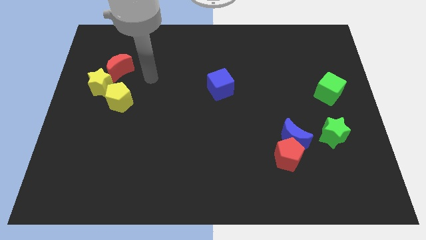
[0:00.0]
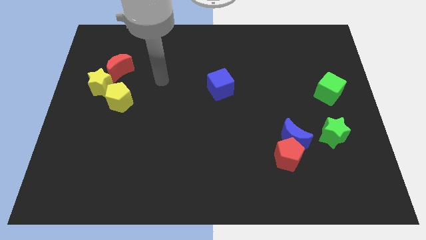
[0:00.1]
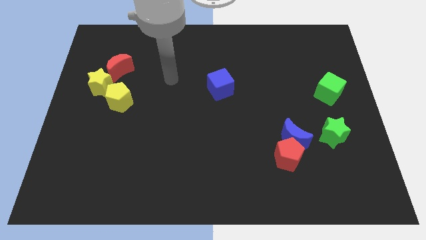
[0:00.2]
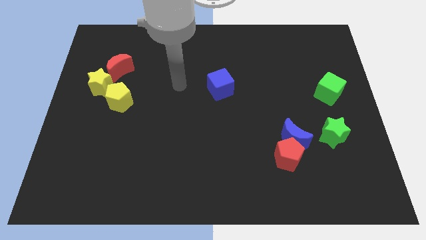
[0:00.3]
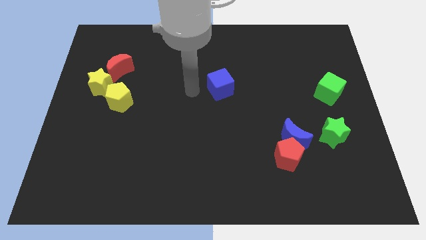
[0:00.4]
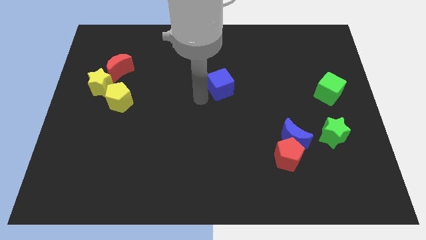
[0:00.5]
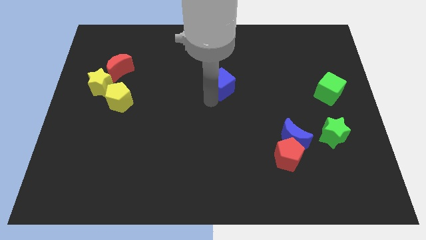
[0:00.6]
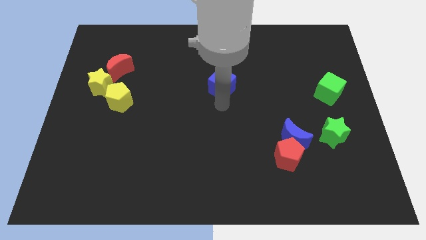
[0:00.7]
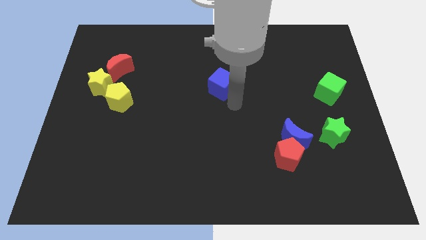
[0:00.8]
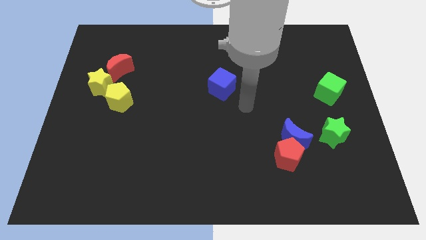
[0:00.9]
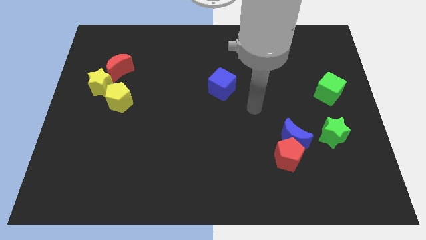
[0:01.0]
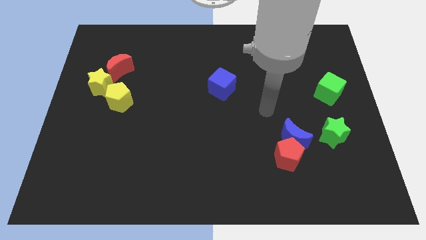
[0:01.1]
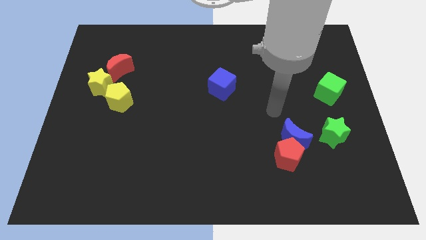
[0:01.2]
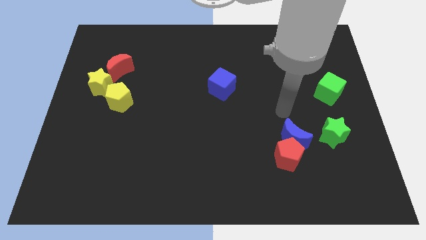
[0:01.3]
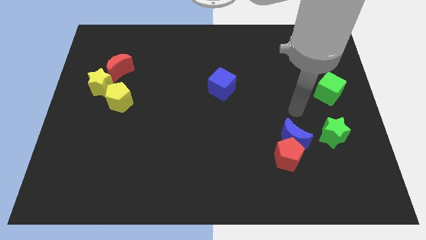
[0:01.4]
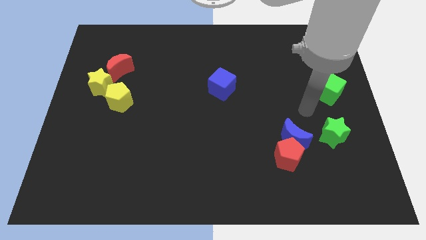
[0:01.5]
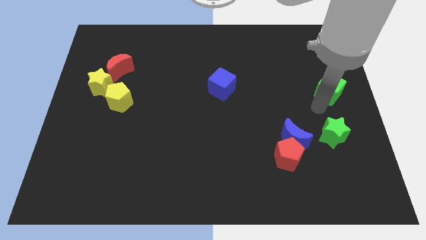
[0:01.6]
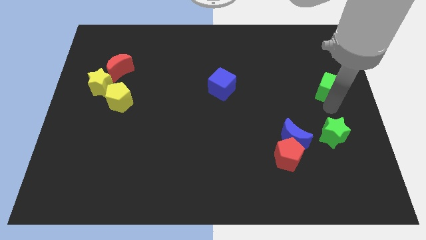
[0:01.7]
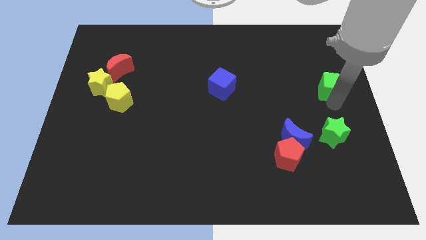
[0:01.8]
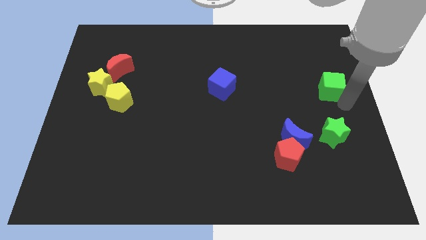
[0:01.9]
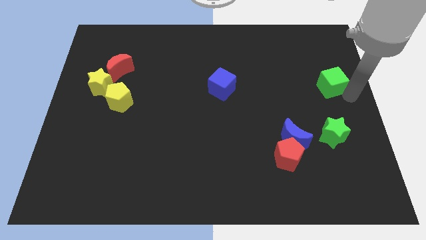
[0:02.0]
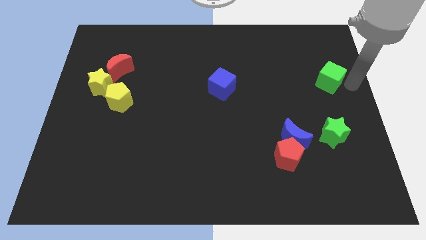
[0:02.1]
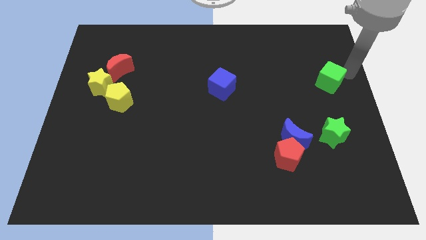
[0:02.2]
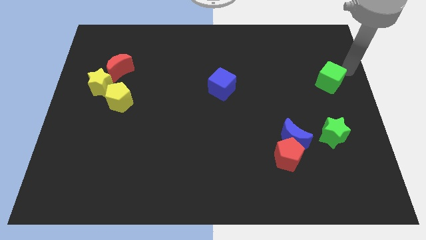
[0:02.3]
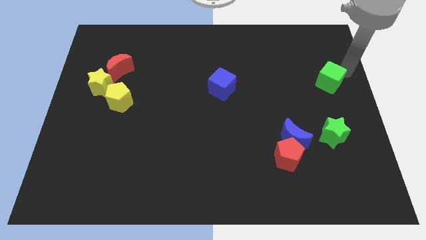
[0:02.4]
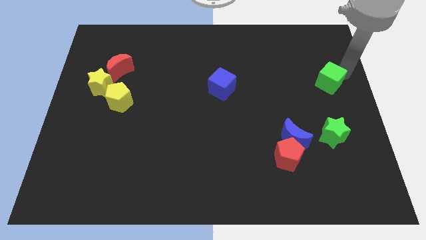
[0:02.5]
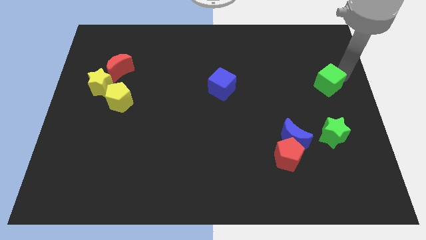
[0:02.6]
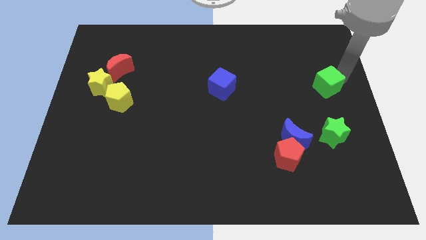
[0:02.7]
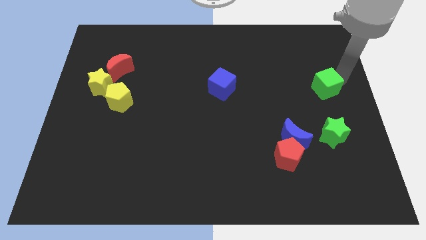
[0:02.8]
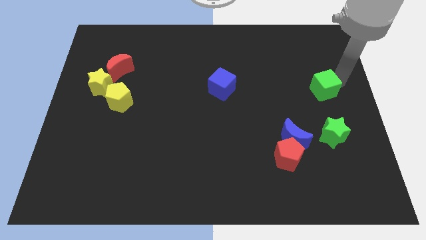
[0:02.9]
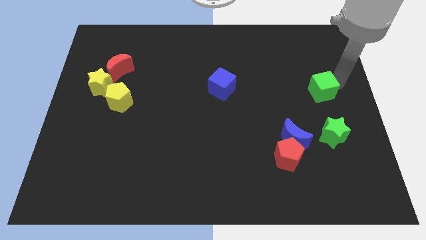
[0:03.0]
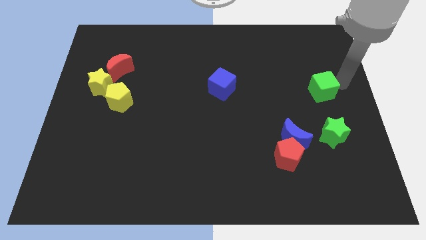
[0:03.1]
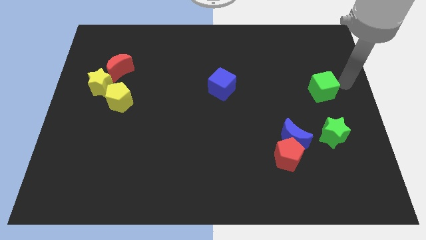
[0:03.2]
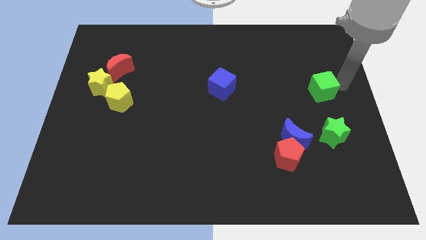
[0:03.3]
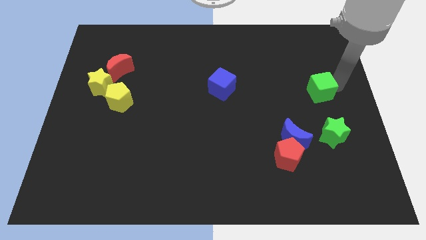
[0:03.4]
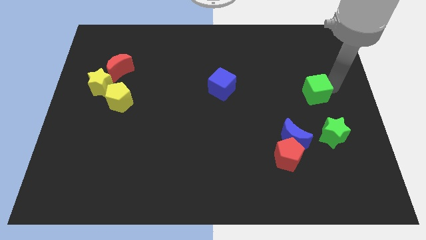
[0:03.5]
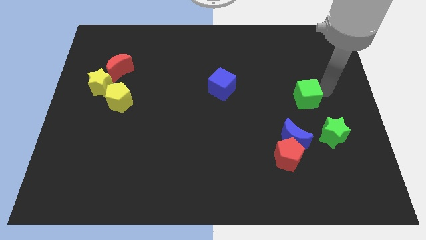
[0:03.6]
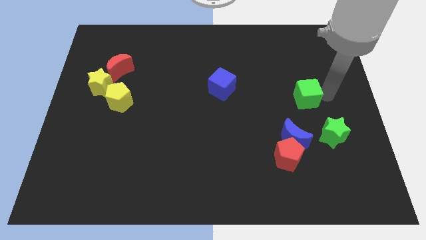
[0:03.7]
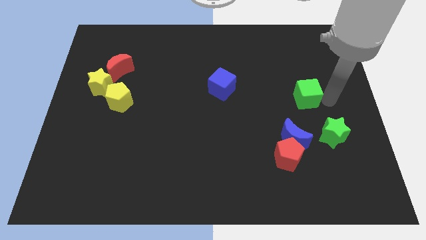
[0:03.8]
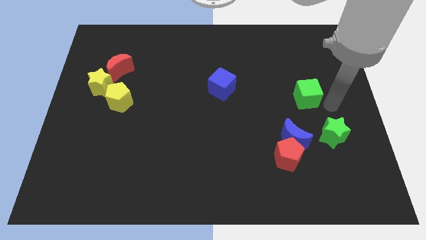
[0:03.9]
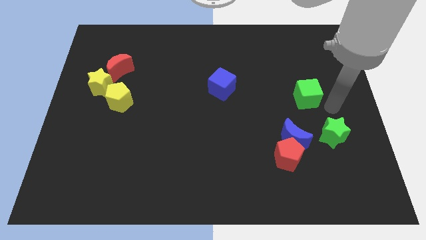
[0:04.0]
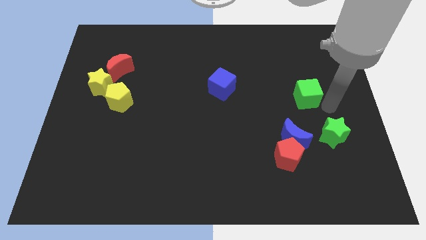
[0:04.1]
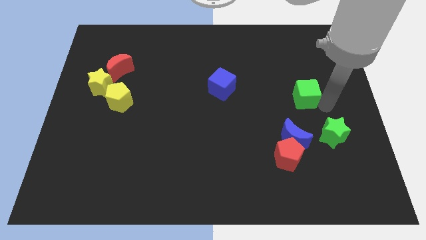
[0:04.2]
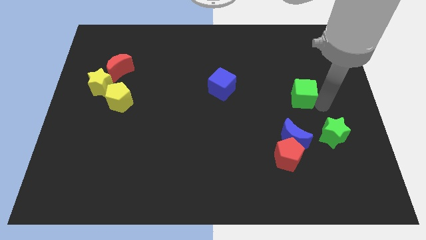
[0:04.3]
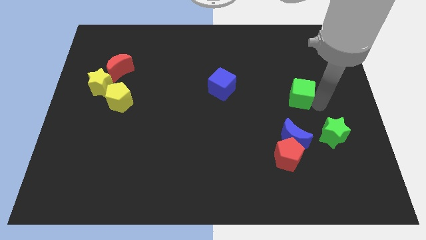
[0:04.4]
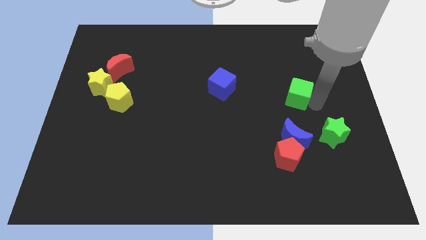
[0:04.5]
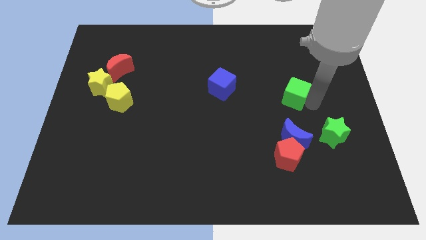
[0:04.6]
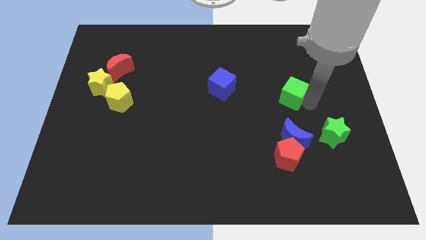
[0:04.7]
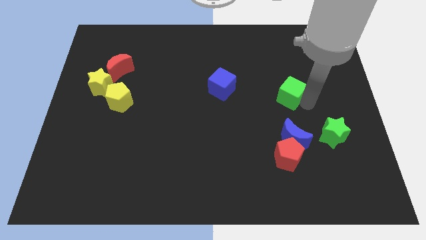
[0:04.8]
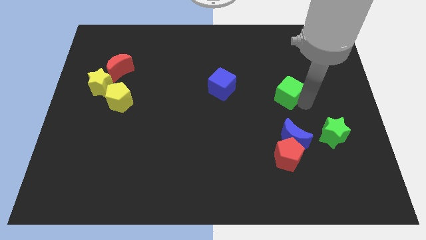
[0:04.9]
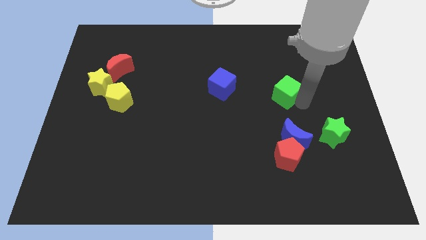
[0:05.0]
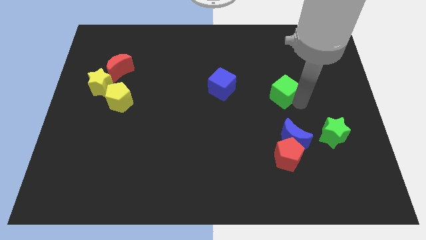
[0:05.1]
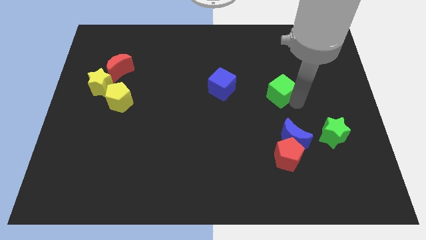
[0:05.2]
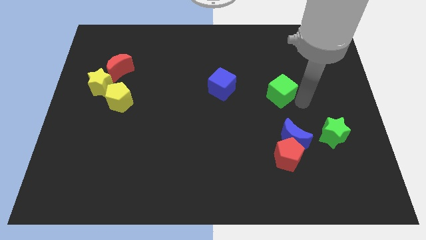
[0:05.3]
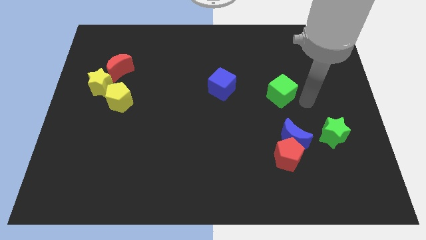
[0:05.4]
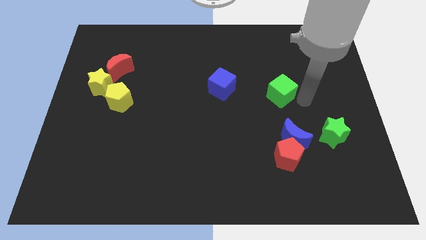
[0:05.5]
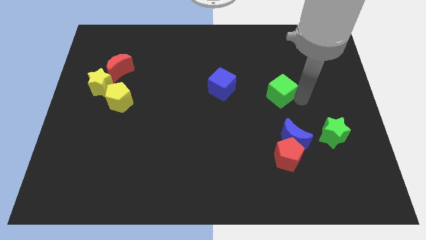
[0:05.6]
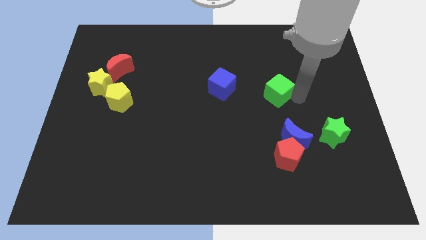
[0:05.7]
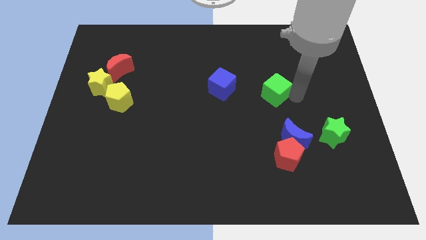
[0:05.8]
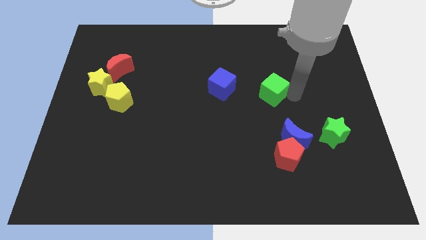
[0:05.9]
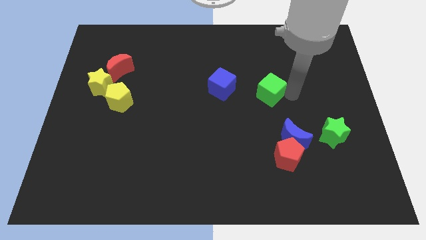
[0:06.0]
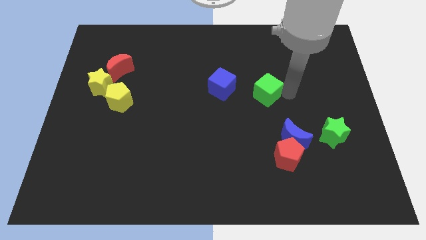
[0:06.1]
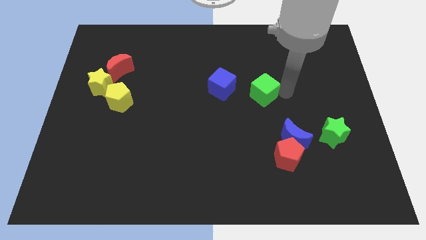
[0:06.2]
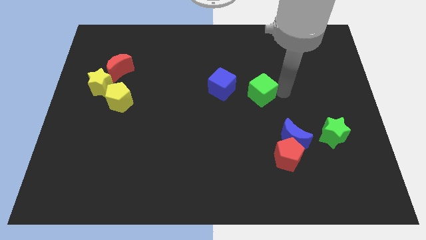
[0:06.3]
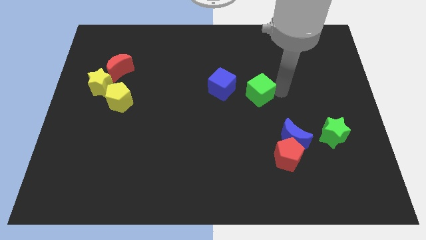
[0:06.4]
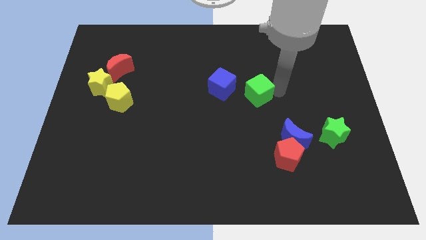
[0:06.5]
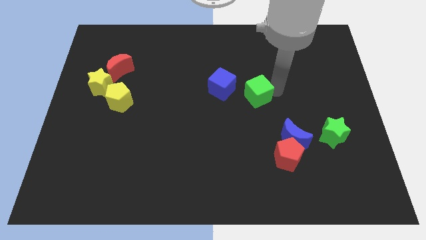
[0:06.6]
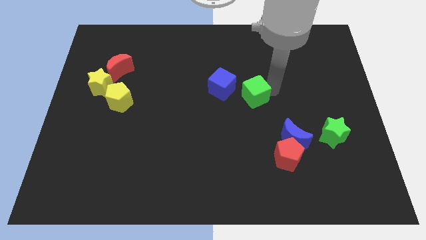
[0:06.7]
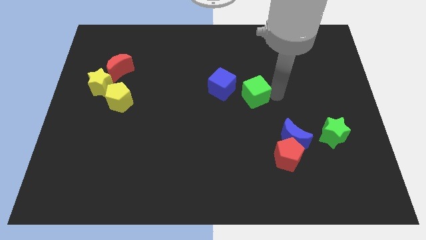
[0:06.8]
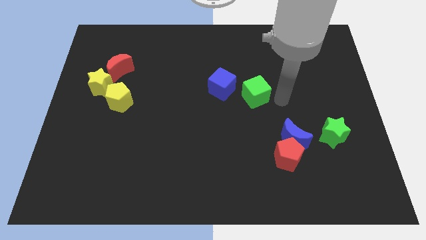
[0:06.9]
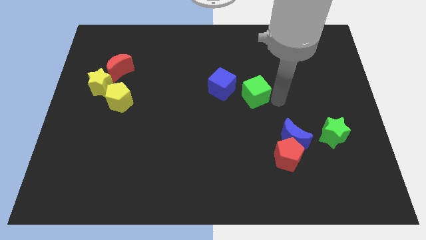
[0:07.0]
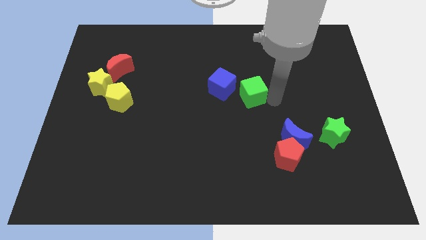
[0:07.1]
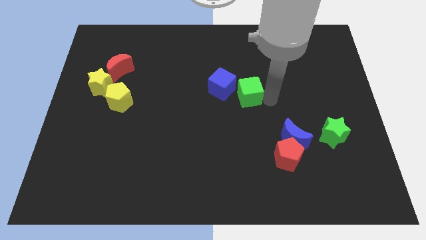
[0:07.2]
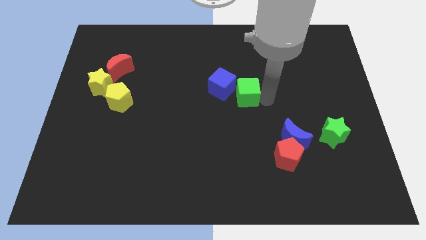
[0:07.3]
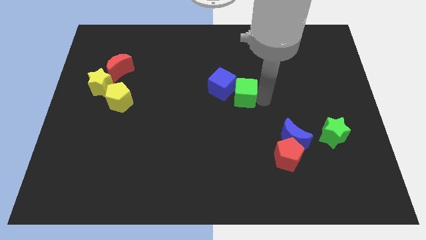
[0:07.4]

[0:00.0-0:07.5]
slide the green cube next to the blue cube
